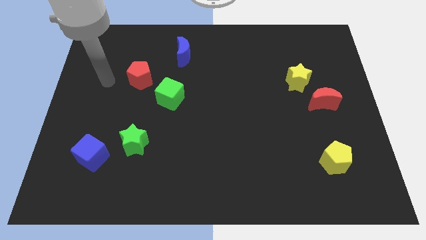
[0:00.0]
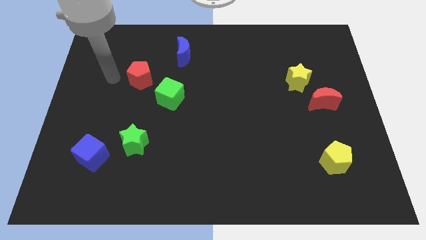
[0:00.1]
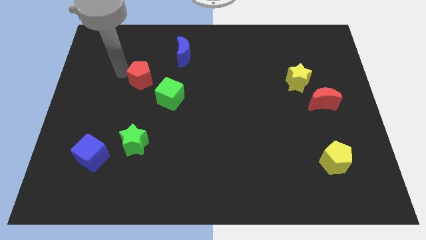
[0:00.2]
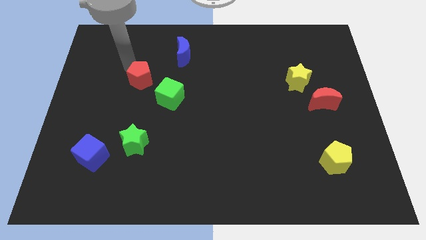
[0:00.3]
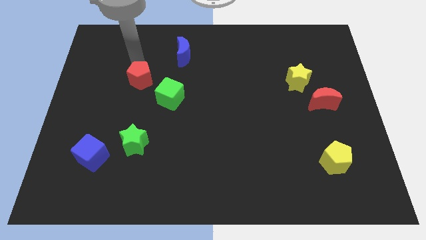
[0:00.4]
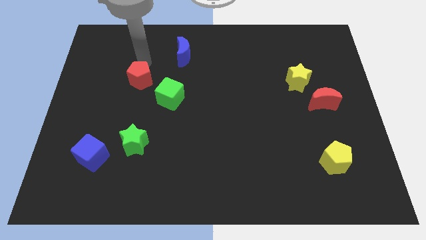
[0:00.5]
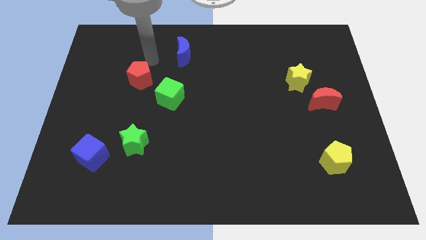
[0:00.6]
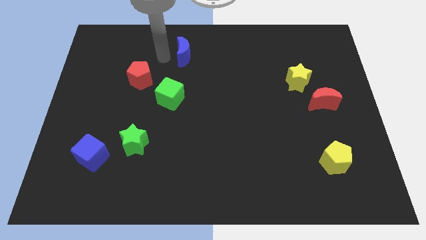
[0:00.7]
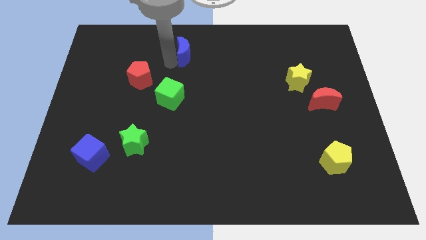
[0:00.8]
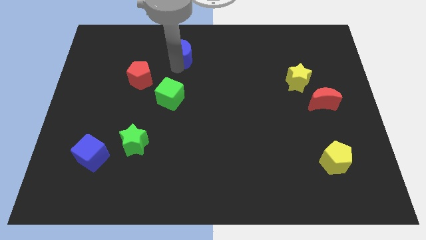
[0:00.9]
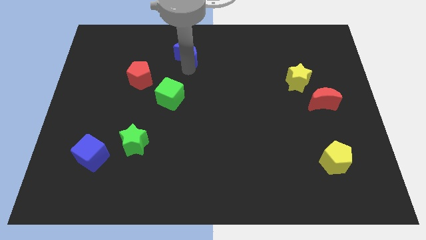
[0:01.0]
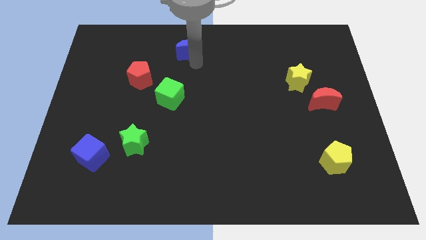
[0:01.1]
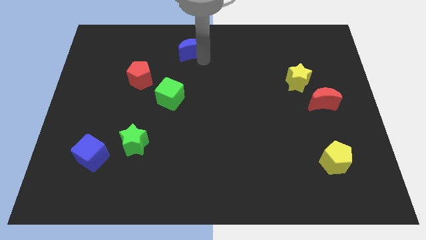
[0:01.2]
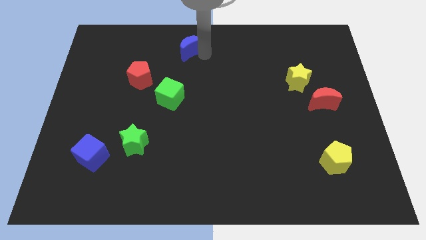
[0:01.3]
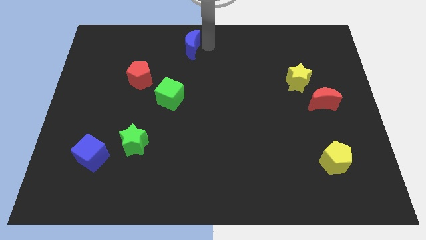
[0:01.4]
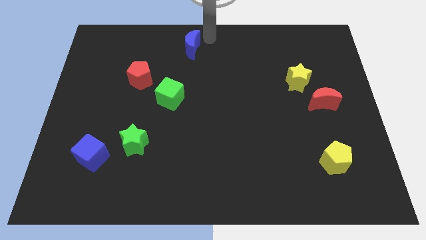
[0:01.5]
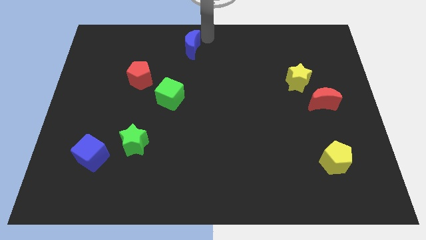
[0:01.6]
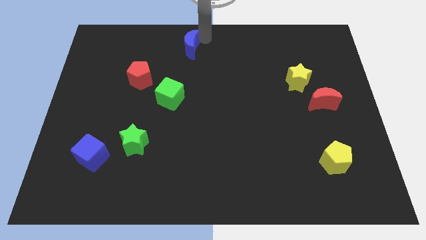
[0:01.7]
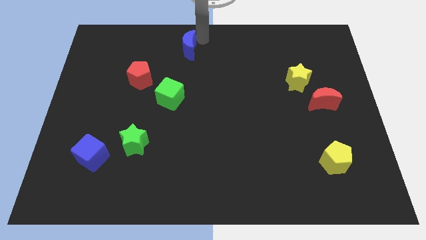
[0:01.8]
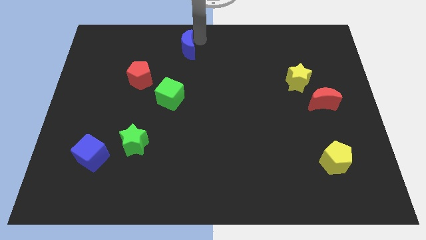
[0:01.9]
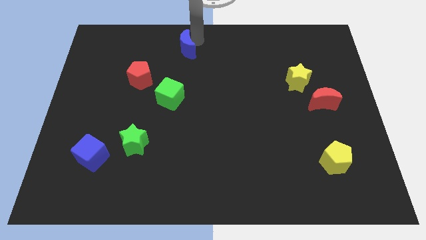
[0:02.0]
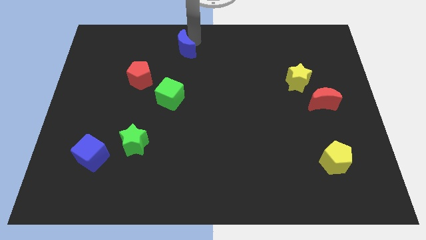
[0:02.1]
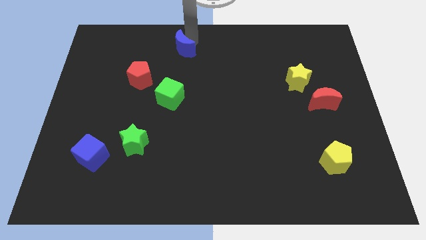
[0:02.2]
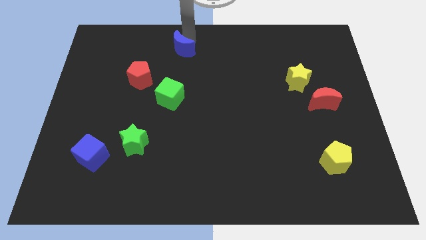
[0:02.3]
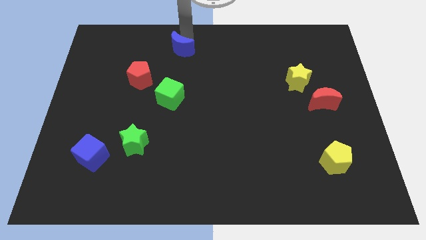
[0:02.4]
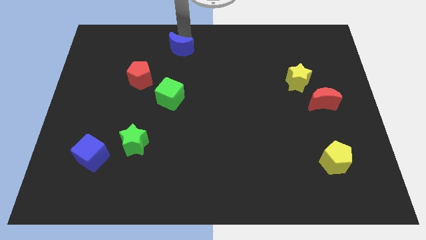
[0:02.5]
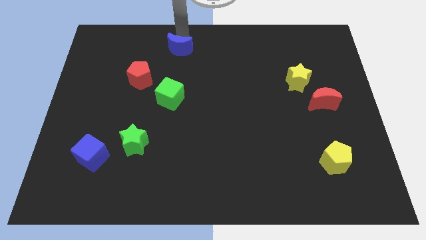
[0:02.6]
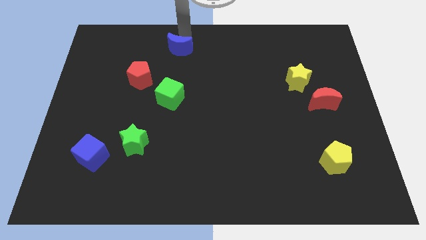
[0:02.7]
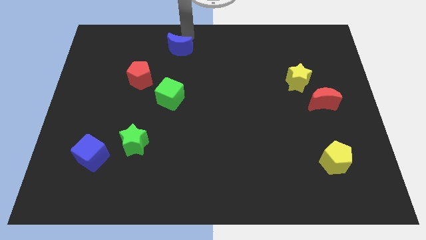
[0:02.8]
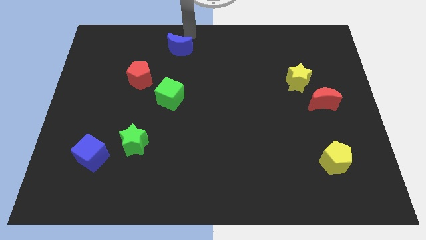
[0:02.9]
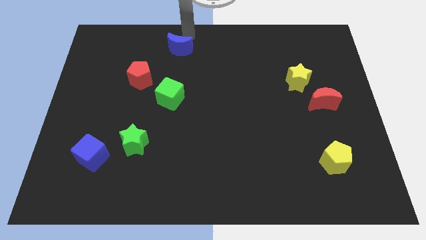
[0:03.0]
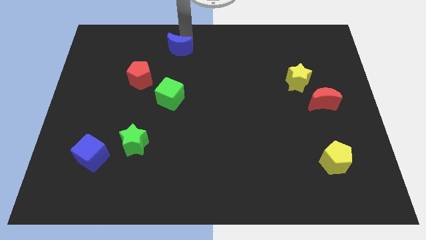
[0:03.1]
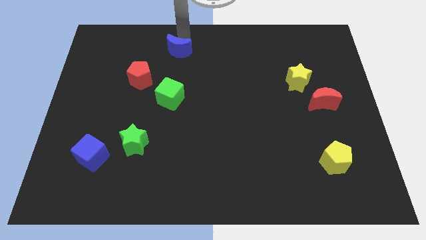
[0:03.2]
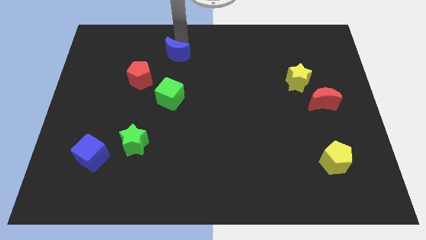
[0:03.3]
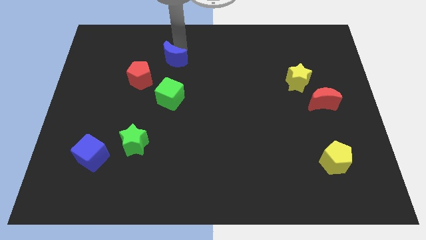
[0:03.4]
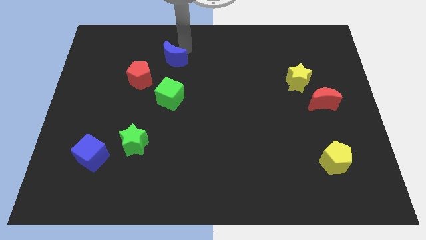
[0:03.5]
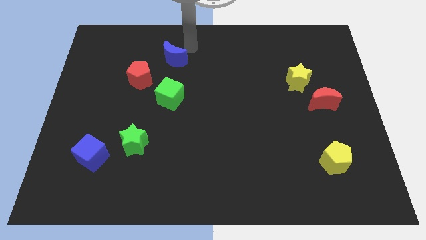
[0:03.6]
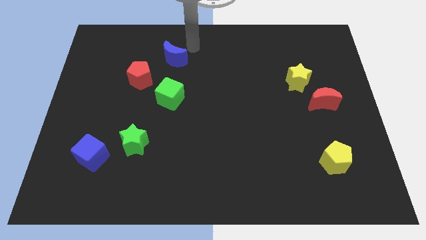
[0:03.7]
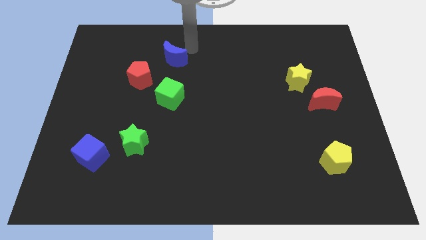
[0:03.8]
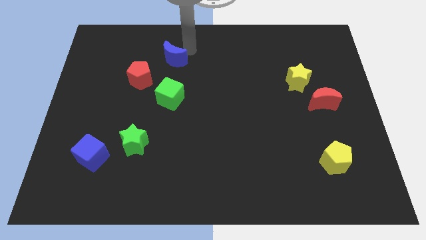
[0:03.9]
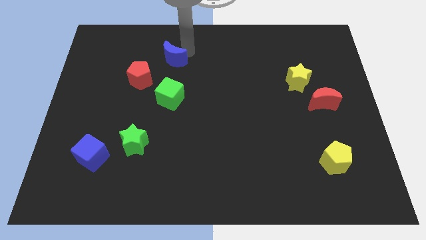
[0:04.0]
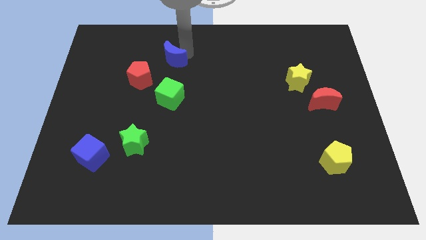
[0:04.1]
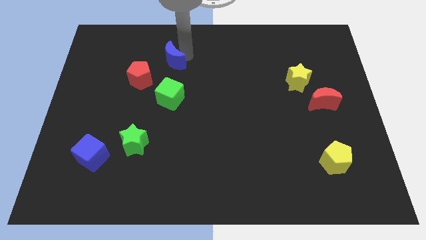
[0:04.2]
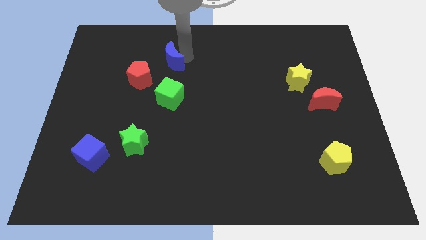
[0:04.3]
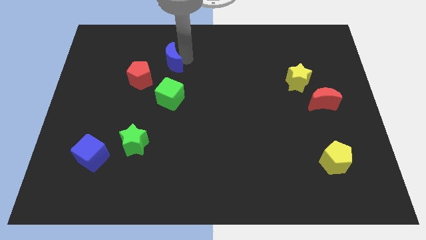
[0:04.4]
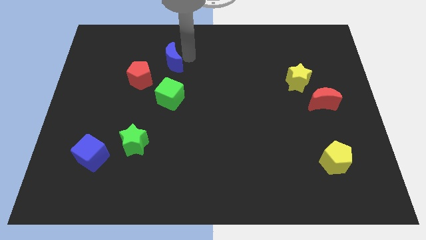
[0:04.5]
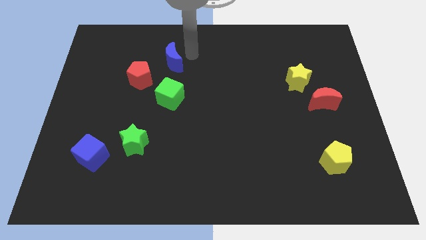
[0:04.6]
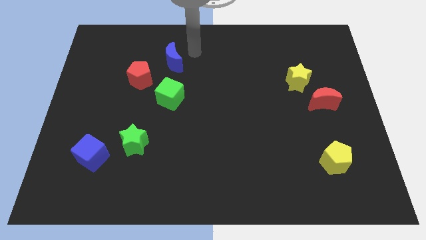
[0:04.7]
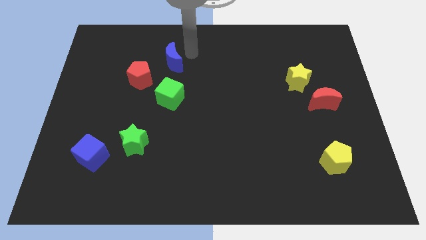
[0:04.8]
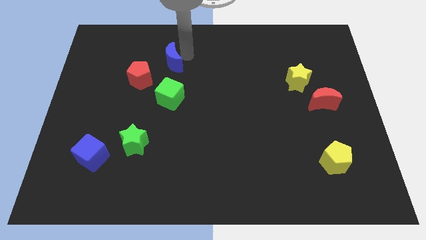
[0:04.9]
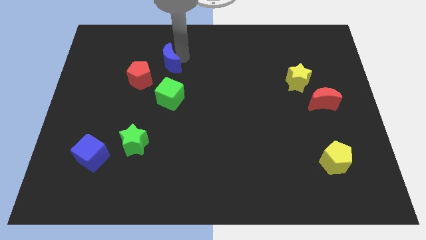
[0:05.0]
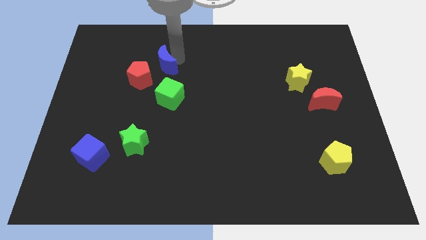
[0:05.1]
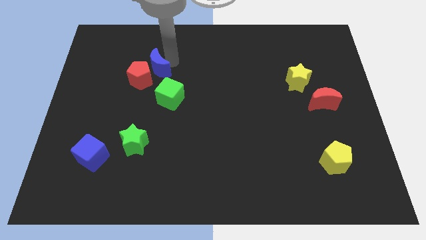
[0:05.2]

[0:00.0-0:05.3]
put the blue moon close to the red pentagon

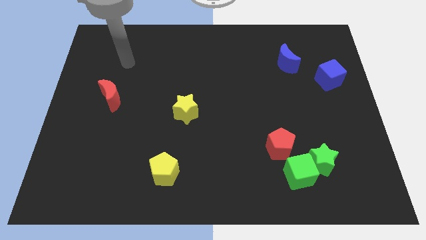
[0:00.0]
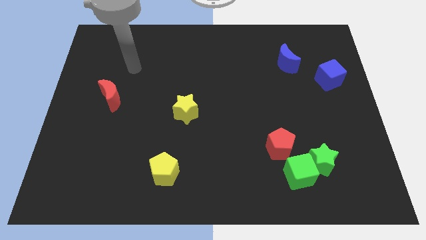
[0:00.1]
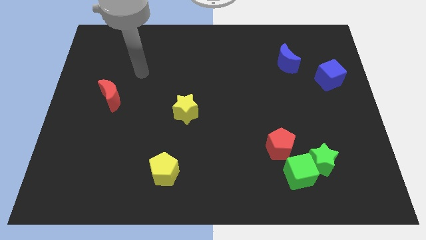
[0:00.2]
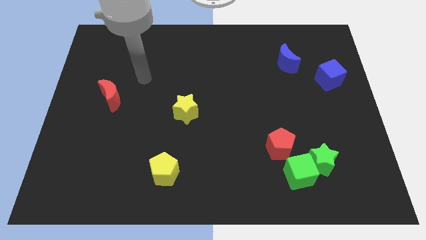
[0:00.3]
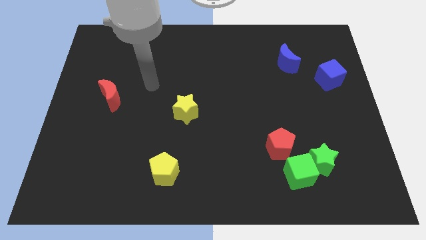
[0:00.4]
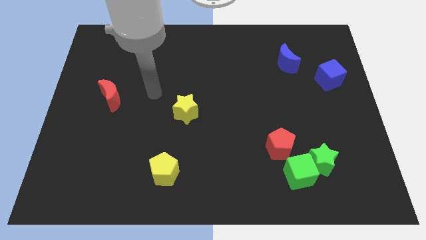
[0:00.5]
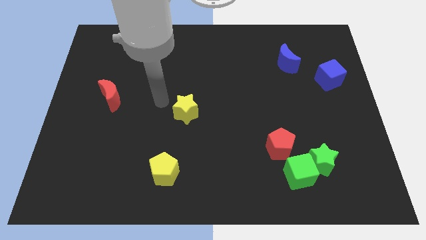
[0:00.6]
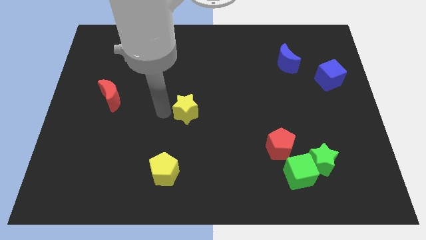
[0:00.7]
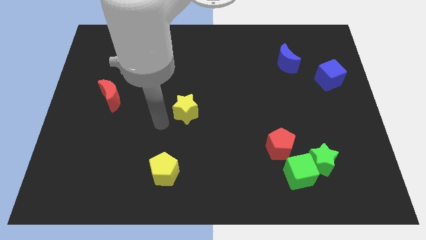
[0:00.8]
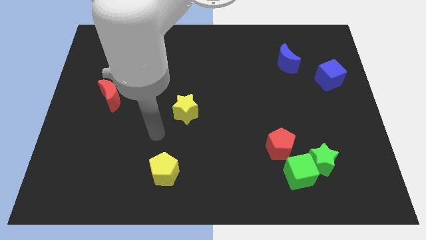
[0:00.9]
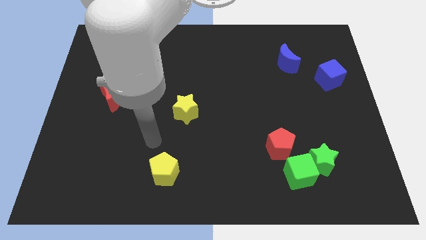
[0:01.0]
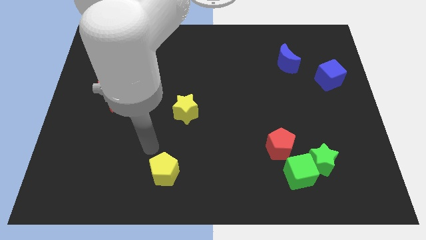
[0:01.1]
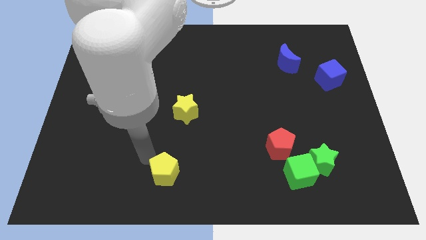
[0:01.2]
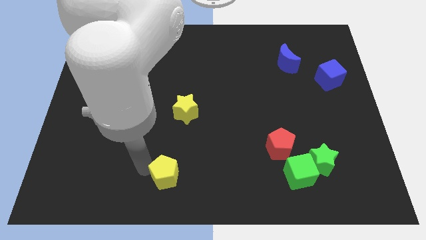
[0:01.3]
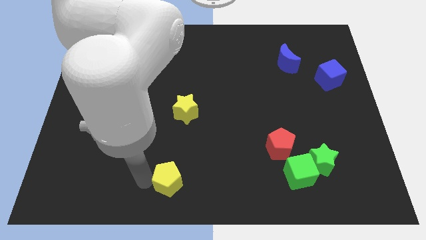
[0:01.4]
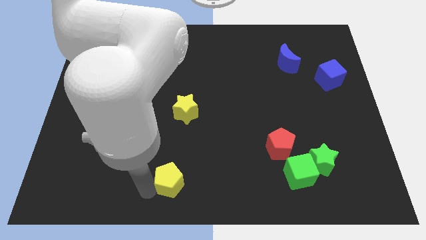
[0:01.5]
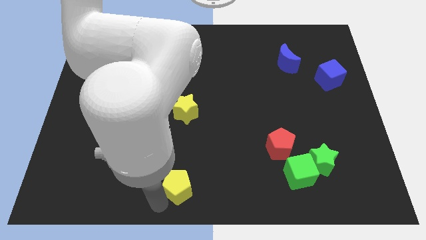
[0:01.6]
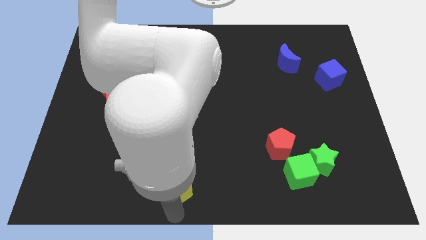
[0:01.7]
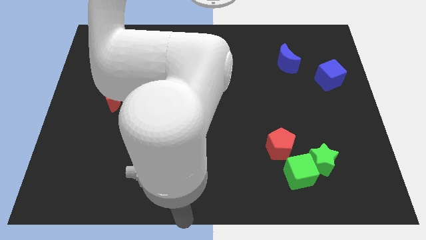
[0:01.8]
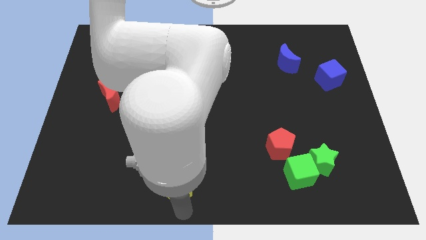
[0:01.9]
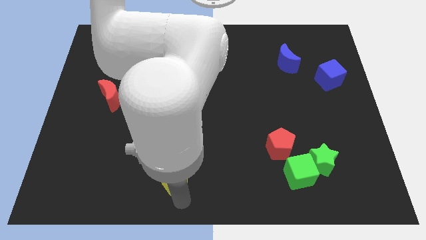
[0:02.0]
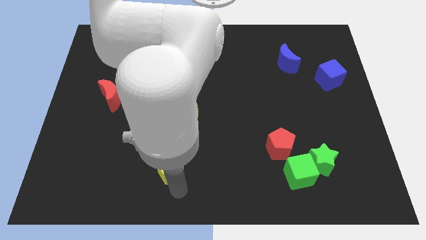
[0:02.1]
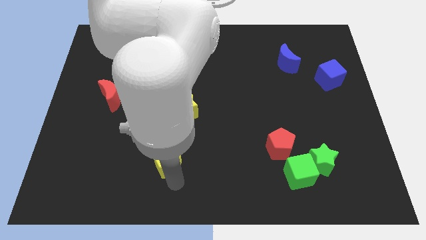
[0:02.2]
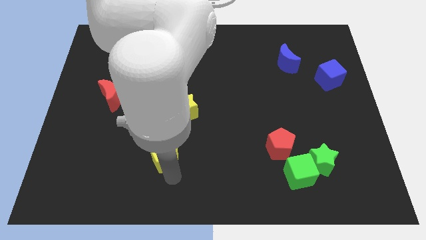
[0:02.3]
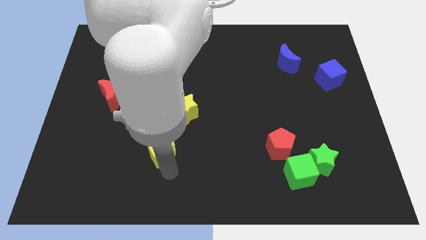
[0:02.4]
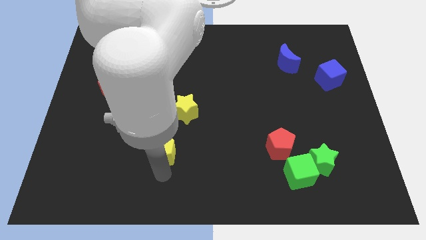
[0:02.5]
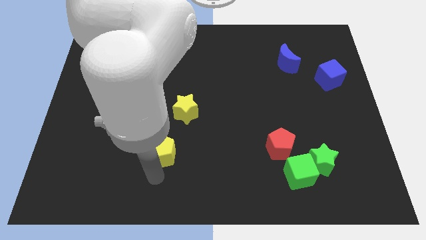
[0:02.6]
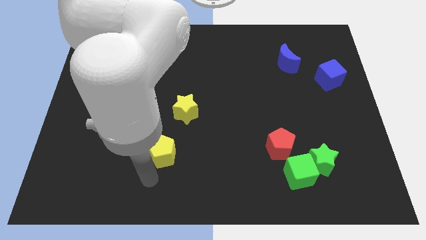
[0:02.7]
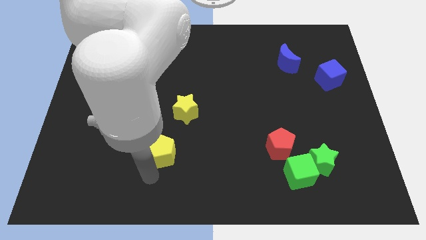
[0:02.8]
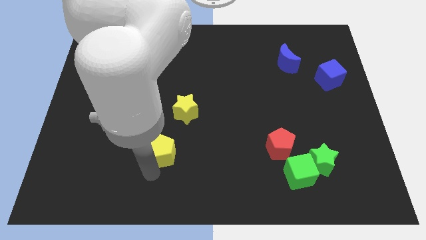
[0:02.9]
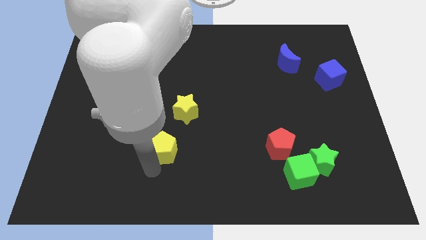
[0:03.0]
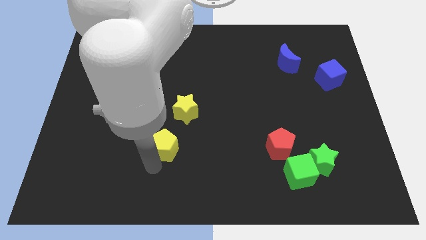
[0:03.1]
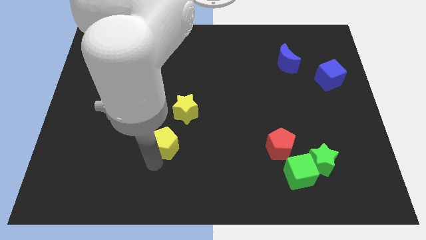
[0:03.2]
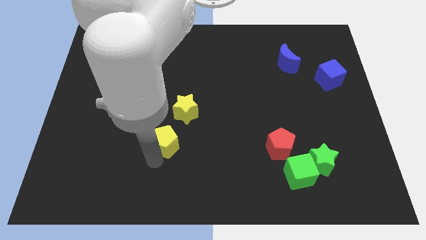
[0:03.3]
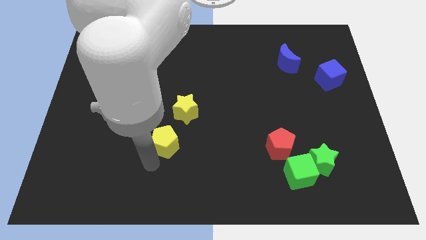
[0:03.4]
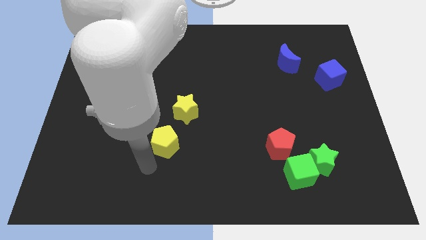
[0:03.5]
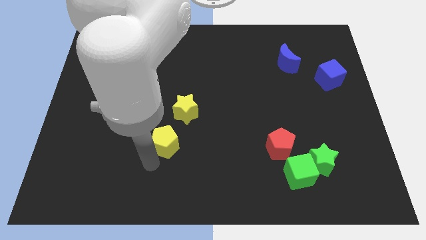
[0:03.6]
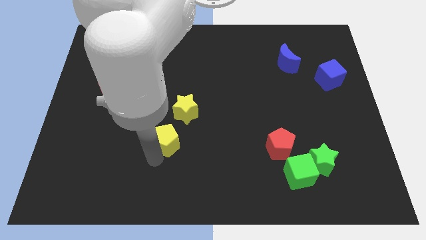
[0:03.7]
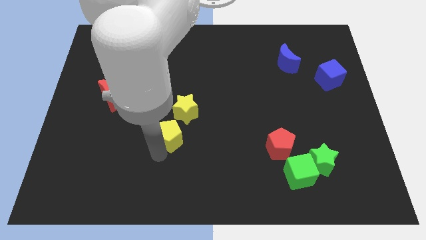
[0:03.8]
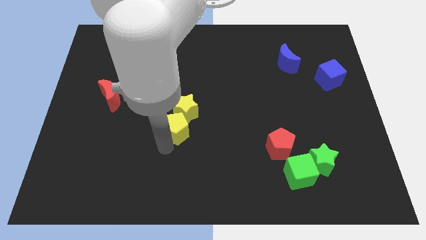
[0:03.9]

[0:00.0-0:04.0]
put the yellow pentagon towards the yellow star
